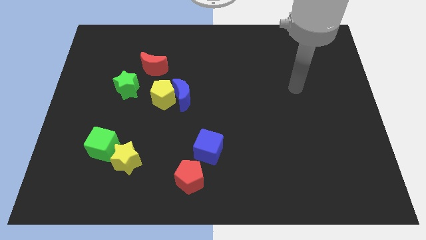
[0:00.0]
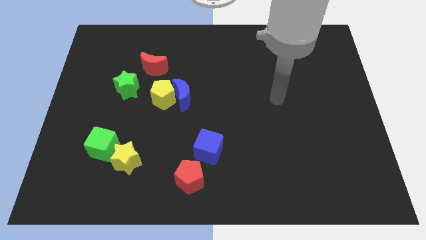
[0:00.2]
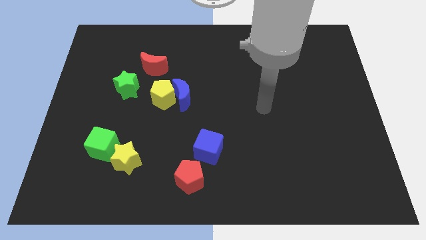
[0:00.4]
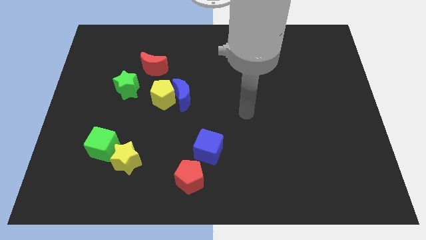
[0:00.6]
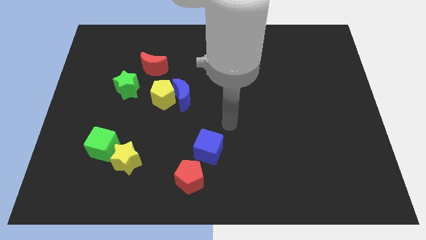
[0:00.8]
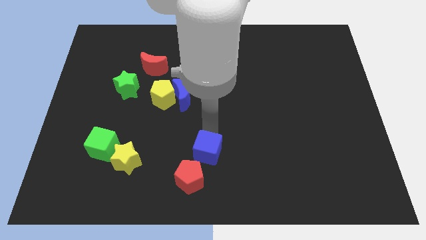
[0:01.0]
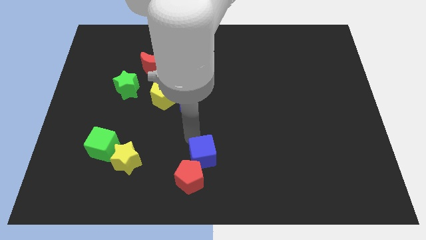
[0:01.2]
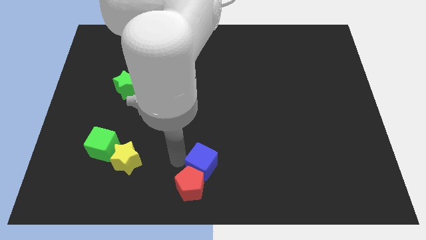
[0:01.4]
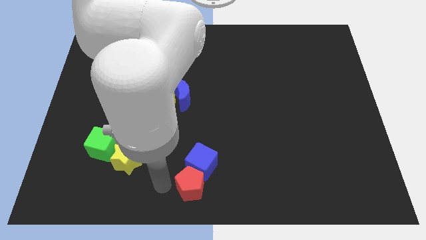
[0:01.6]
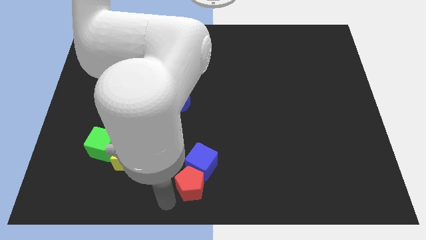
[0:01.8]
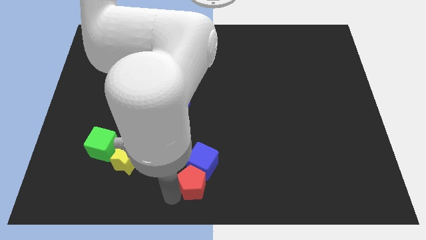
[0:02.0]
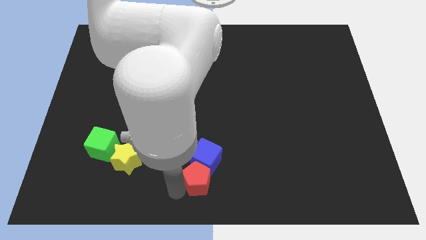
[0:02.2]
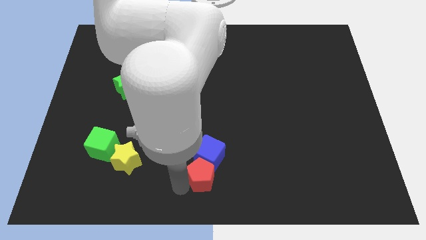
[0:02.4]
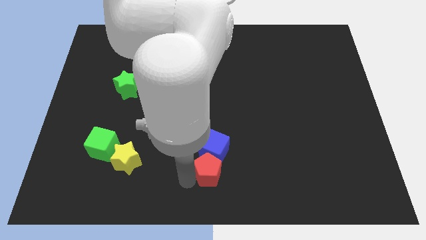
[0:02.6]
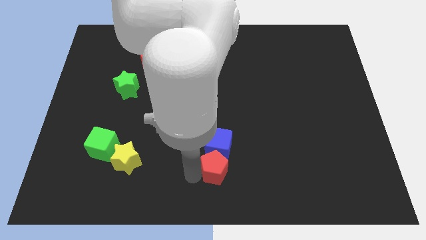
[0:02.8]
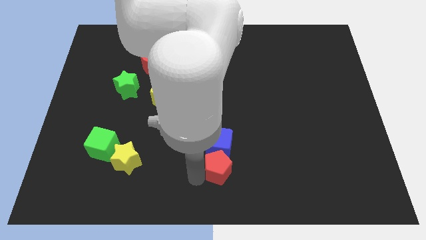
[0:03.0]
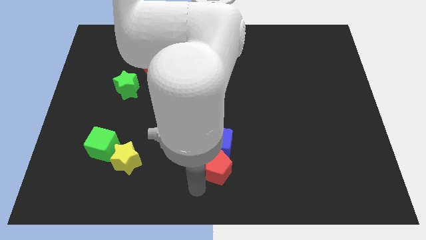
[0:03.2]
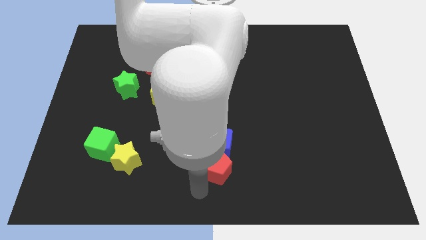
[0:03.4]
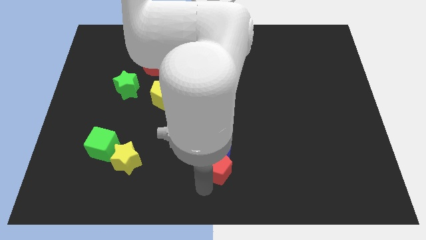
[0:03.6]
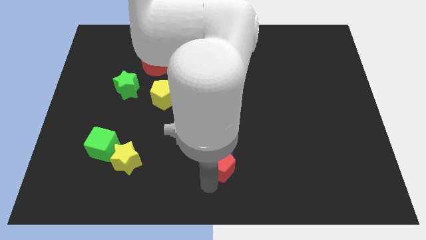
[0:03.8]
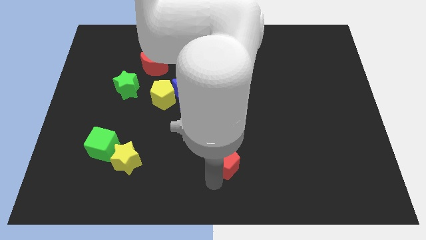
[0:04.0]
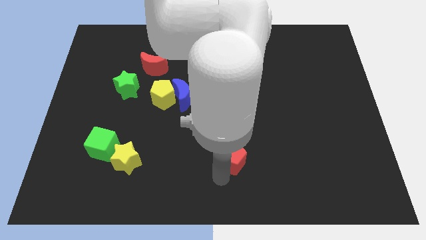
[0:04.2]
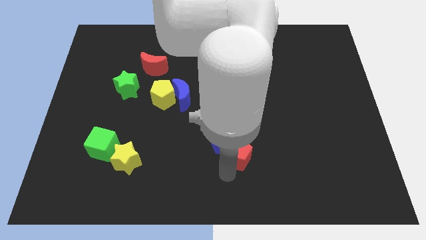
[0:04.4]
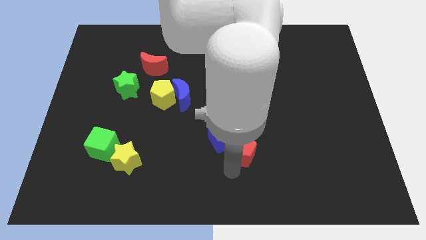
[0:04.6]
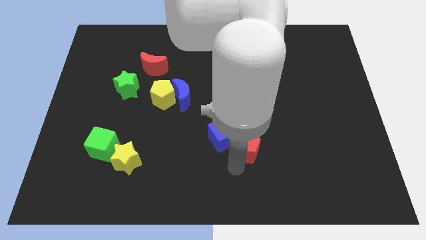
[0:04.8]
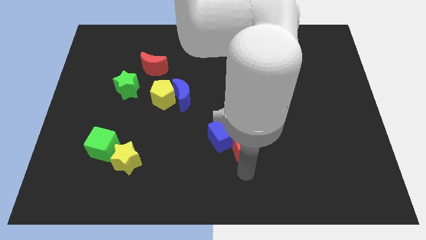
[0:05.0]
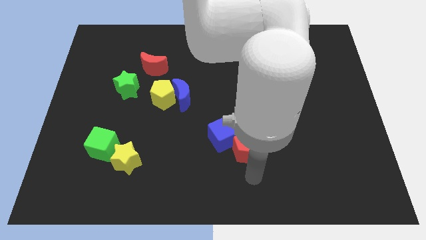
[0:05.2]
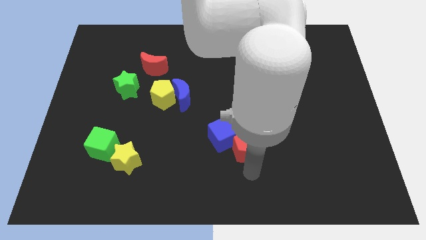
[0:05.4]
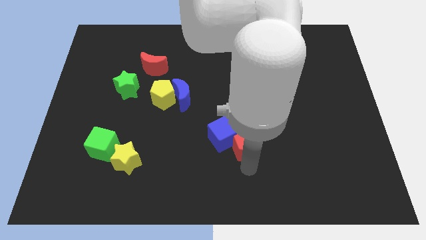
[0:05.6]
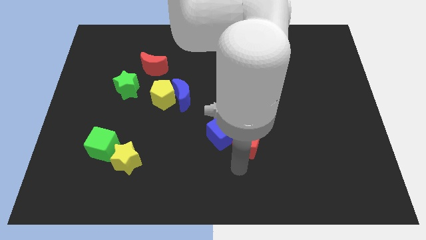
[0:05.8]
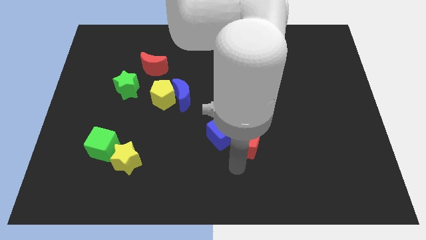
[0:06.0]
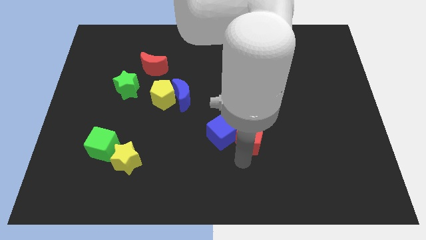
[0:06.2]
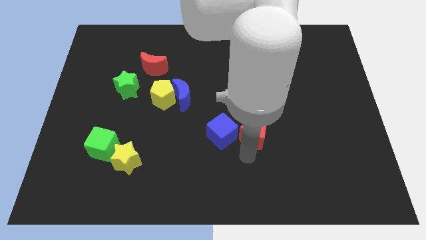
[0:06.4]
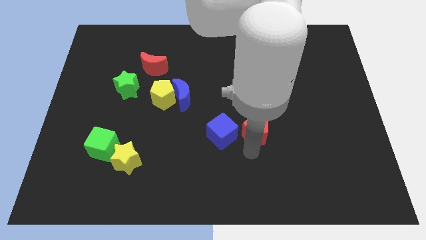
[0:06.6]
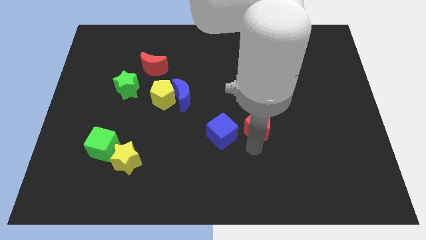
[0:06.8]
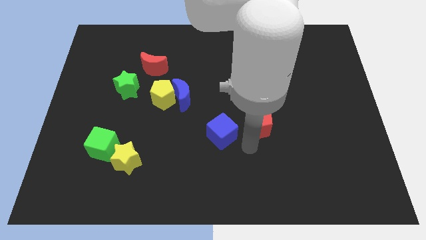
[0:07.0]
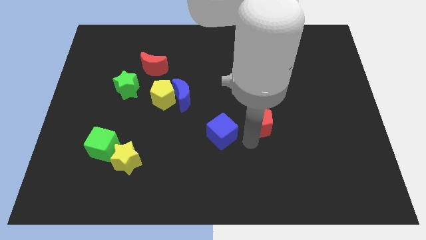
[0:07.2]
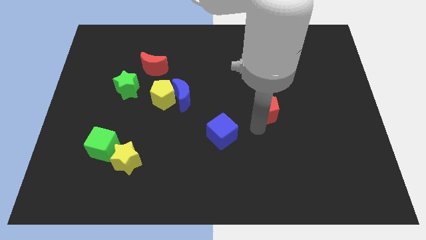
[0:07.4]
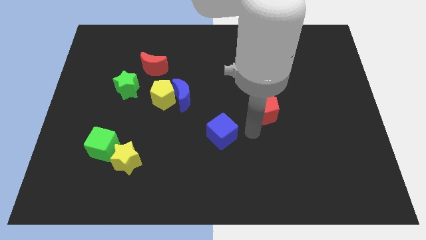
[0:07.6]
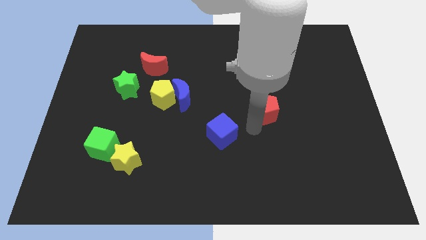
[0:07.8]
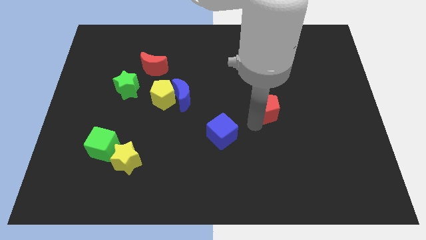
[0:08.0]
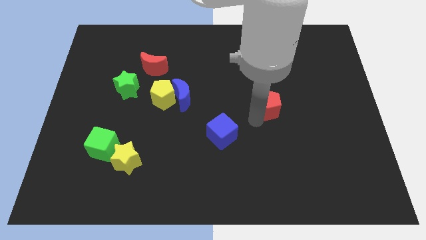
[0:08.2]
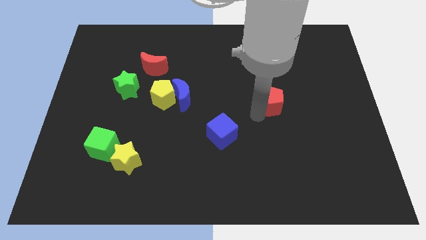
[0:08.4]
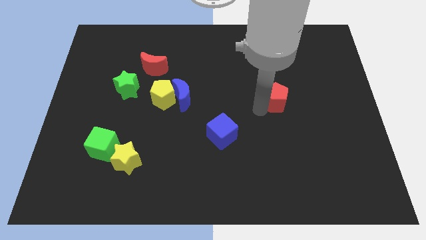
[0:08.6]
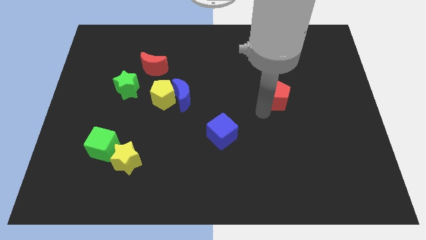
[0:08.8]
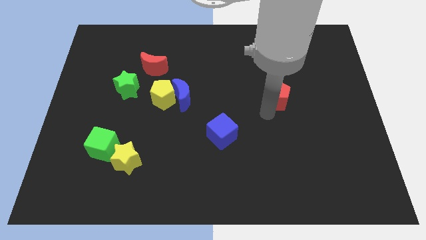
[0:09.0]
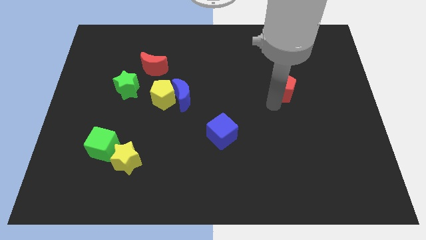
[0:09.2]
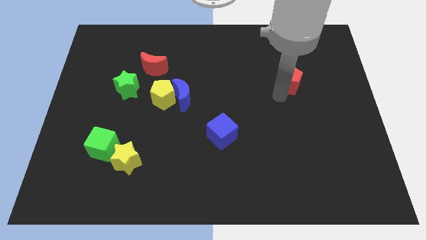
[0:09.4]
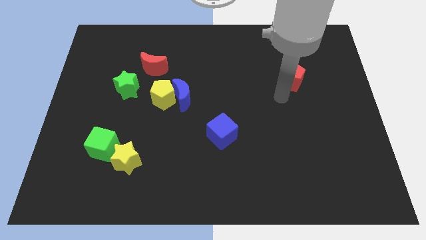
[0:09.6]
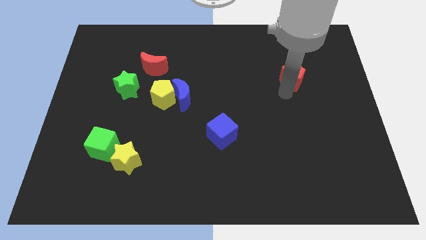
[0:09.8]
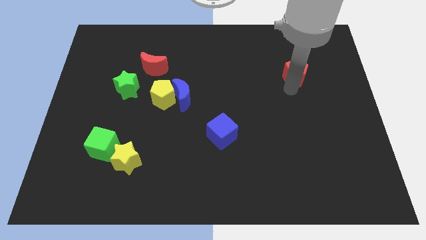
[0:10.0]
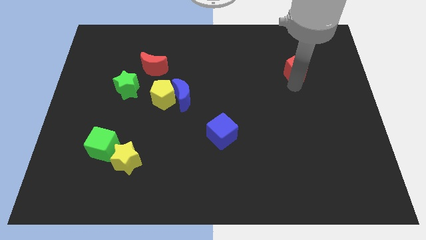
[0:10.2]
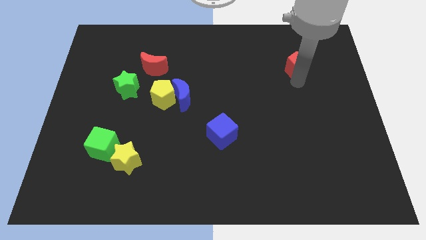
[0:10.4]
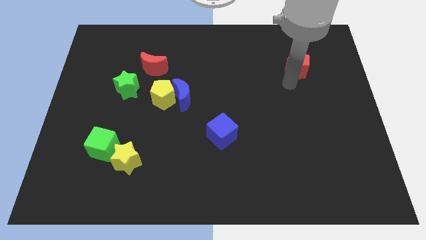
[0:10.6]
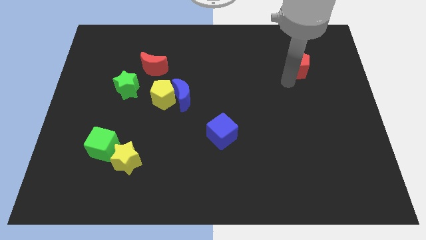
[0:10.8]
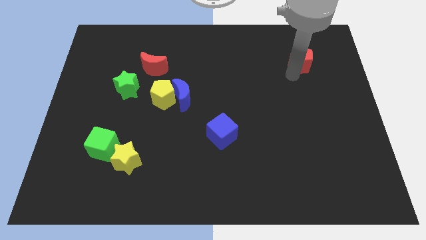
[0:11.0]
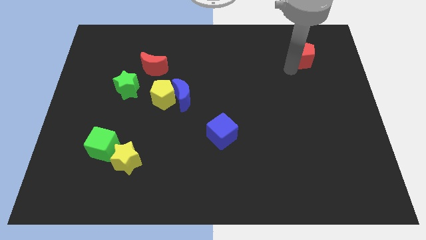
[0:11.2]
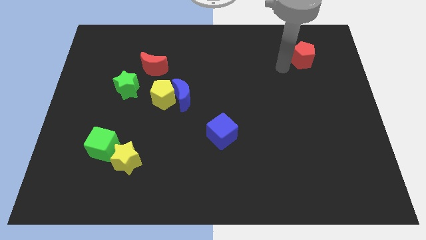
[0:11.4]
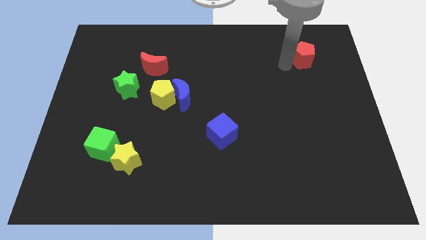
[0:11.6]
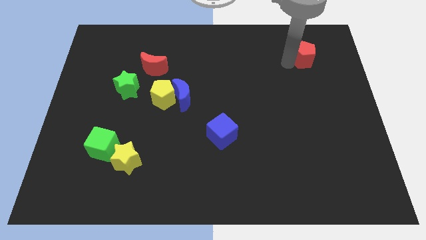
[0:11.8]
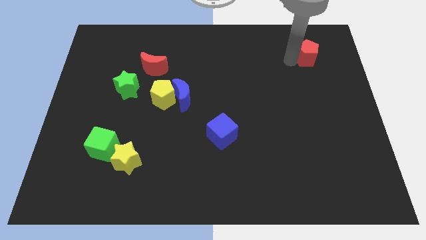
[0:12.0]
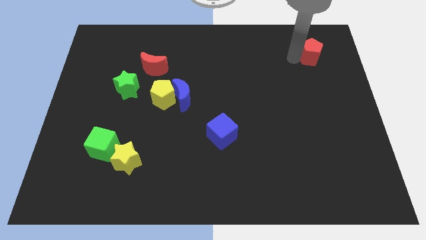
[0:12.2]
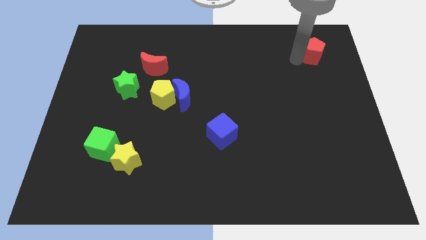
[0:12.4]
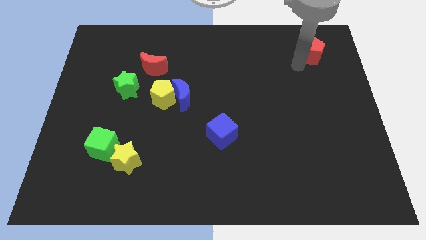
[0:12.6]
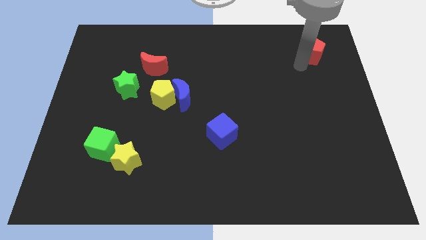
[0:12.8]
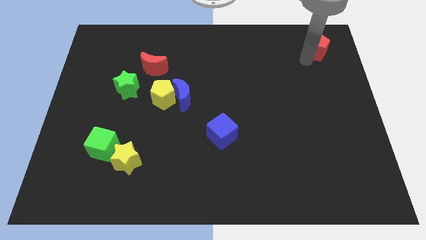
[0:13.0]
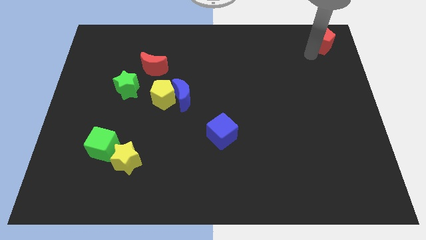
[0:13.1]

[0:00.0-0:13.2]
push the red pentagon to the upper right corner

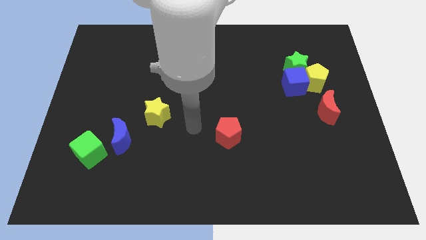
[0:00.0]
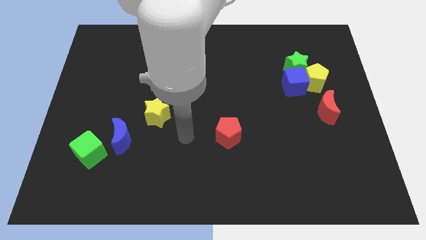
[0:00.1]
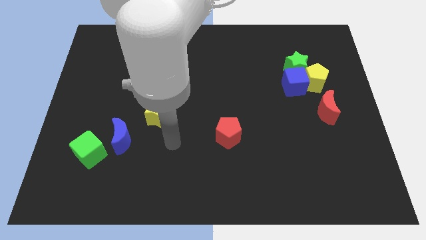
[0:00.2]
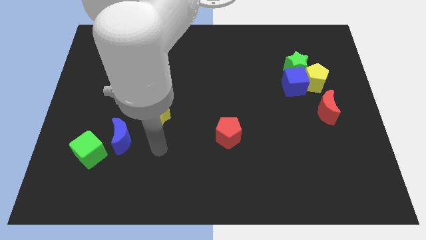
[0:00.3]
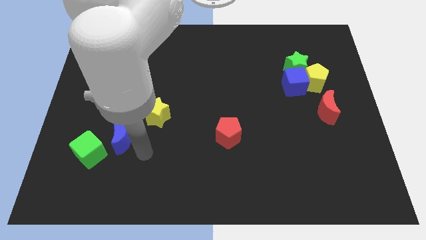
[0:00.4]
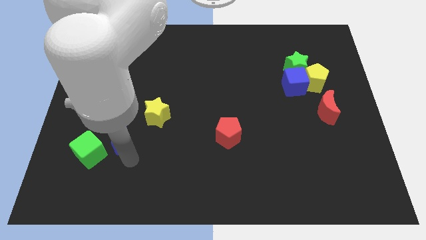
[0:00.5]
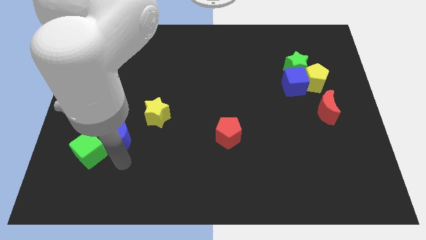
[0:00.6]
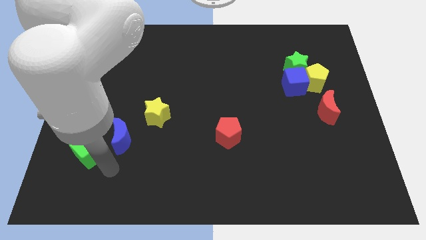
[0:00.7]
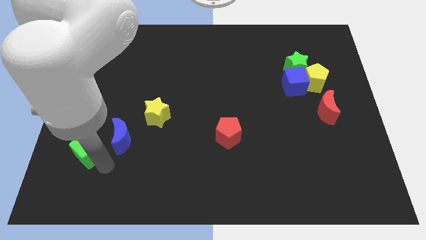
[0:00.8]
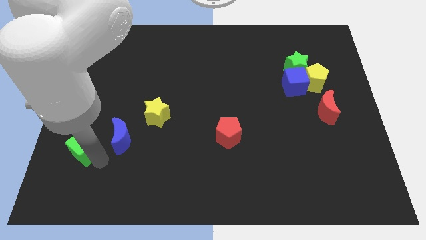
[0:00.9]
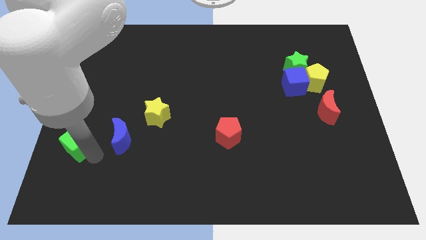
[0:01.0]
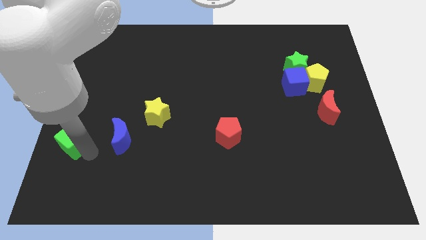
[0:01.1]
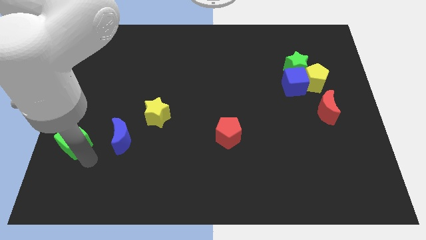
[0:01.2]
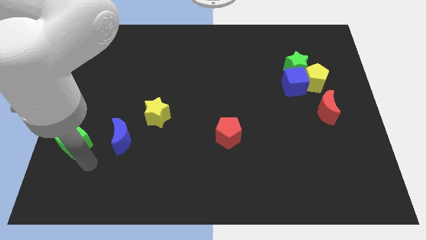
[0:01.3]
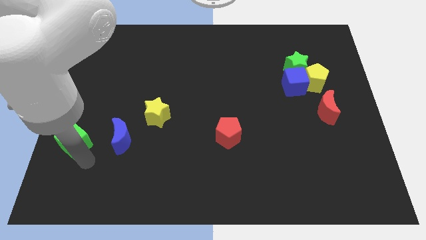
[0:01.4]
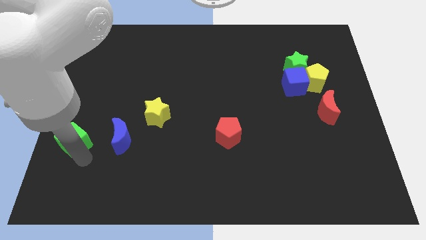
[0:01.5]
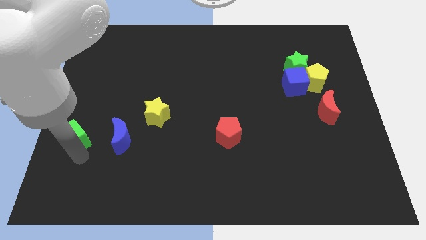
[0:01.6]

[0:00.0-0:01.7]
move the green cube to the center left
